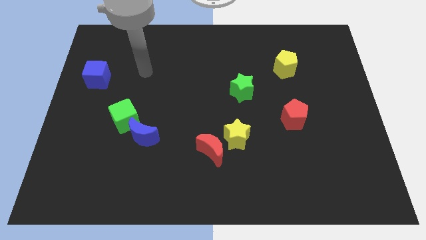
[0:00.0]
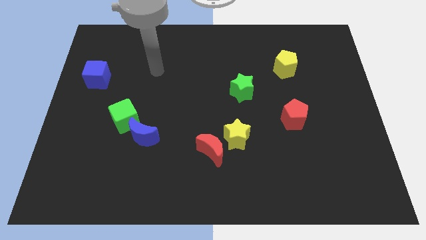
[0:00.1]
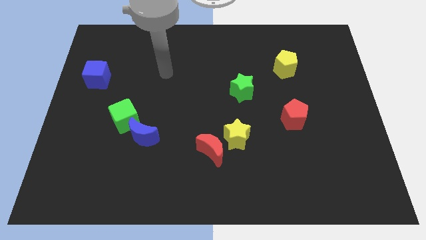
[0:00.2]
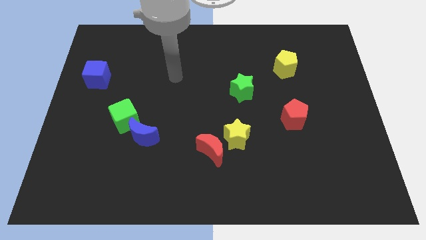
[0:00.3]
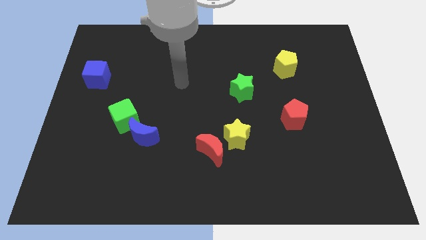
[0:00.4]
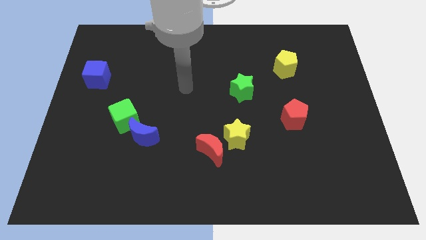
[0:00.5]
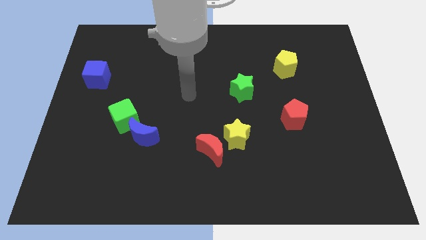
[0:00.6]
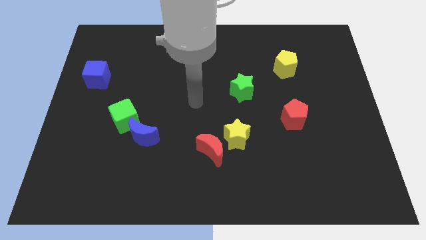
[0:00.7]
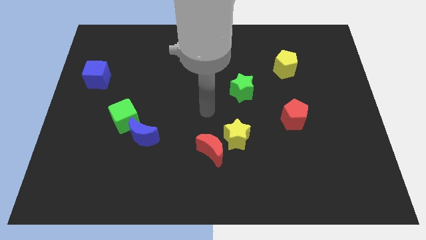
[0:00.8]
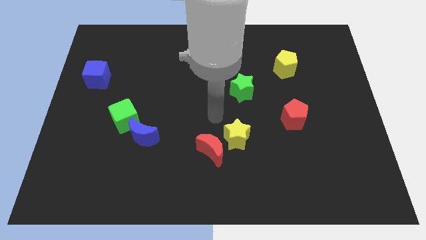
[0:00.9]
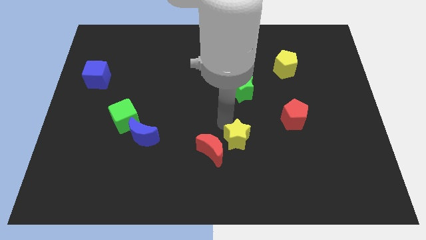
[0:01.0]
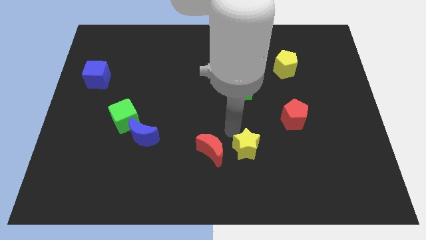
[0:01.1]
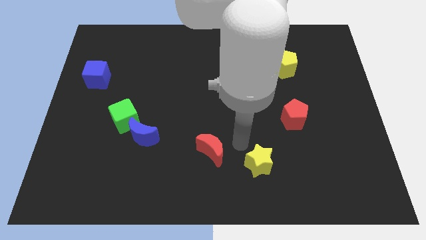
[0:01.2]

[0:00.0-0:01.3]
pull the red moon apart from the yellow star

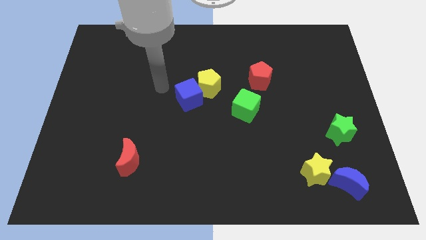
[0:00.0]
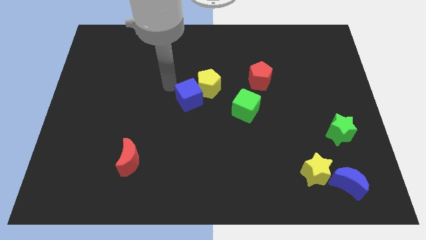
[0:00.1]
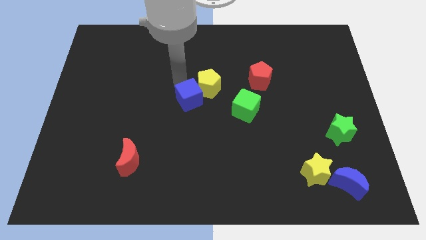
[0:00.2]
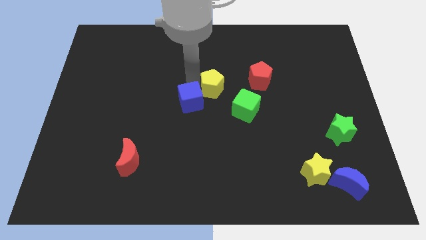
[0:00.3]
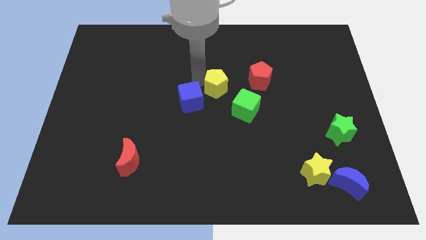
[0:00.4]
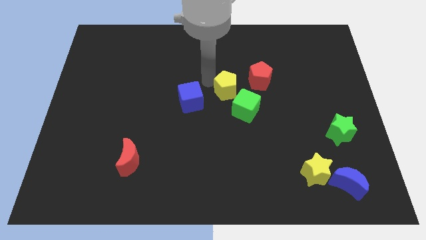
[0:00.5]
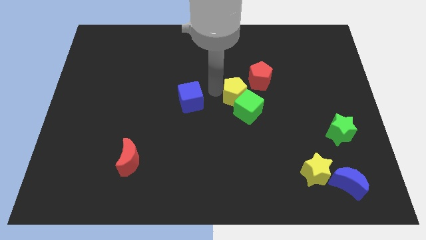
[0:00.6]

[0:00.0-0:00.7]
move the blue cube away from the yellow pentagon

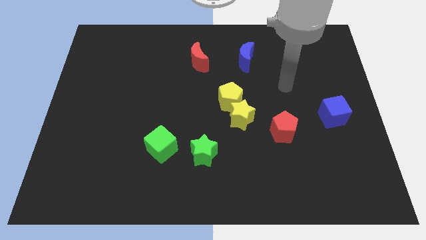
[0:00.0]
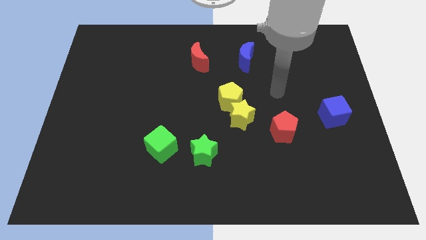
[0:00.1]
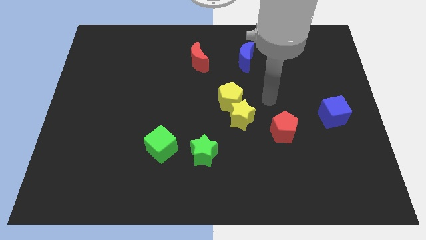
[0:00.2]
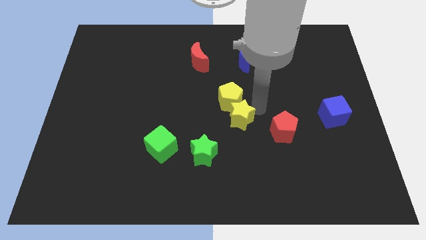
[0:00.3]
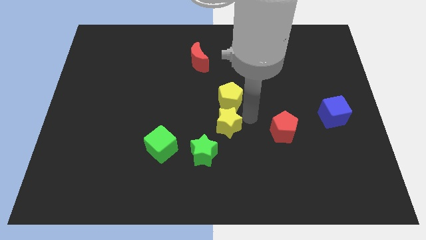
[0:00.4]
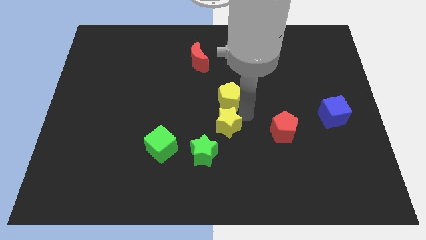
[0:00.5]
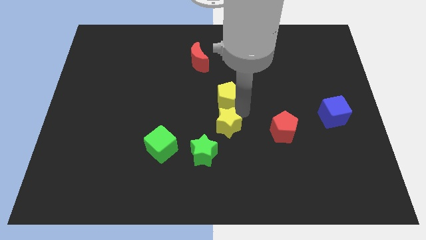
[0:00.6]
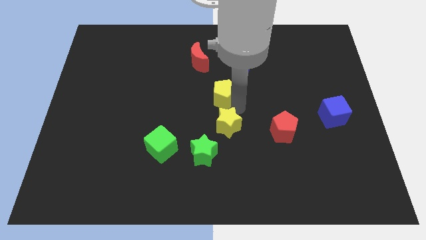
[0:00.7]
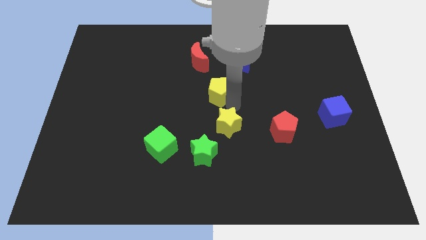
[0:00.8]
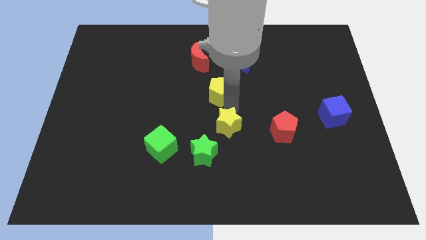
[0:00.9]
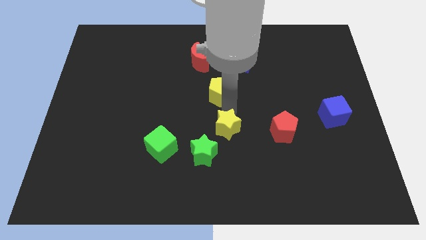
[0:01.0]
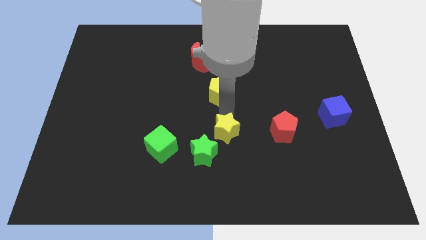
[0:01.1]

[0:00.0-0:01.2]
separate the yellow pentagon from the yellow star

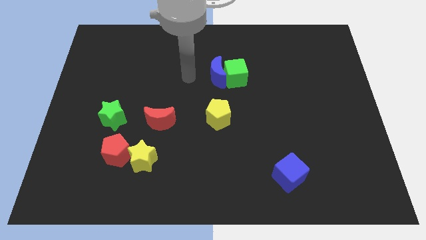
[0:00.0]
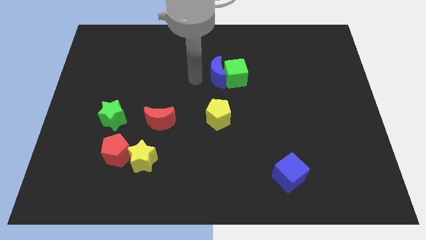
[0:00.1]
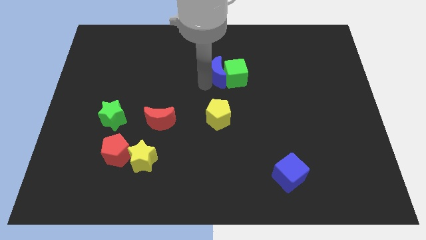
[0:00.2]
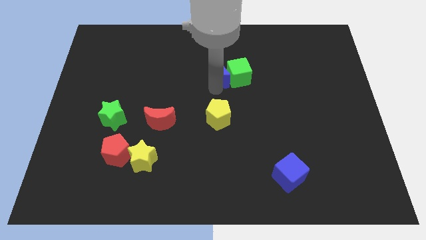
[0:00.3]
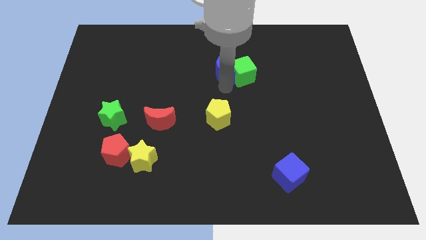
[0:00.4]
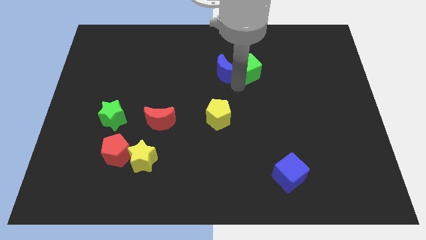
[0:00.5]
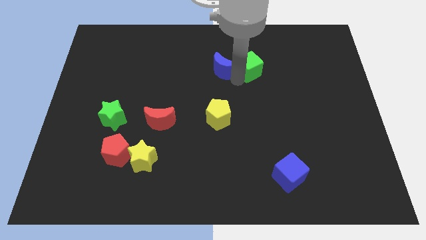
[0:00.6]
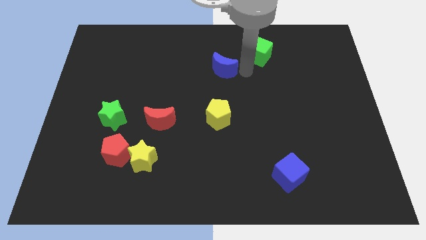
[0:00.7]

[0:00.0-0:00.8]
move the blue moon away from the green cube

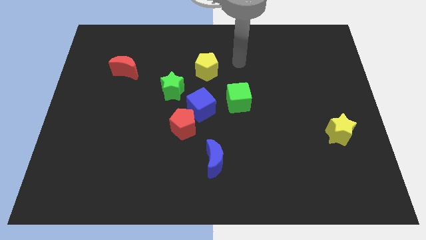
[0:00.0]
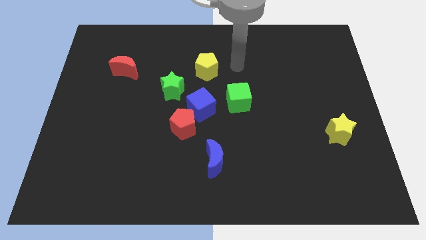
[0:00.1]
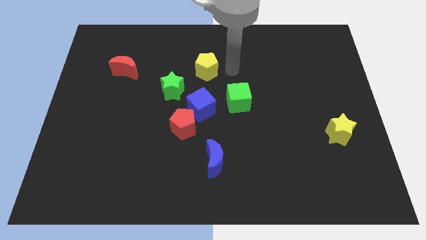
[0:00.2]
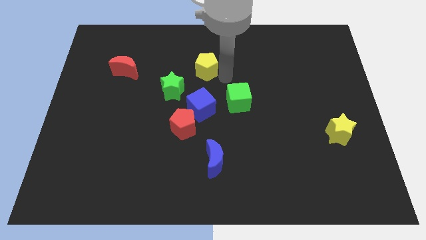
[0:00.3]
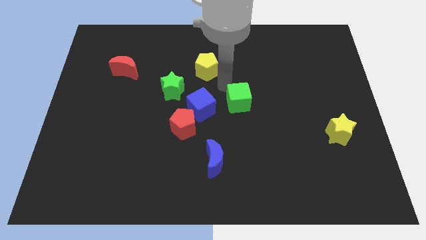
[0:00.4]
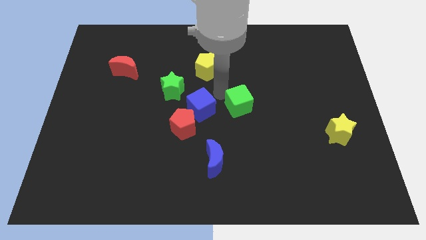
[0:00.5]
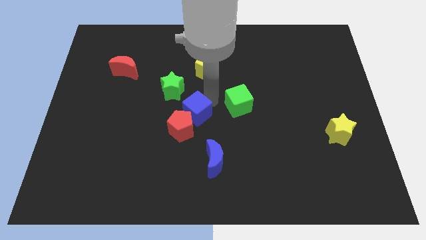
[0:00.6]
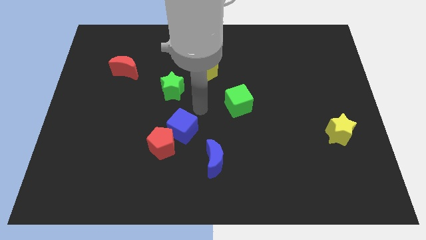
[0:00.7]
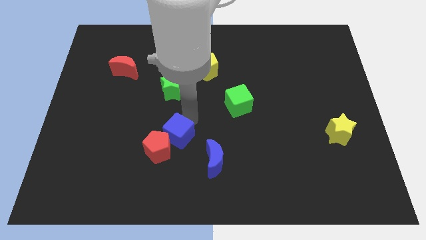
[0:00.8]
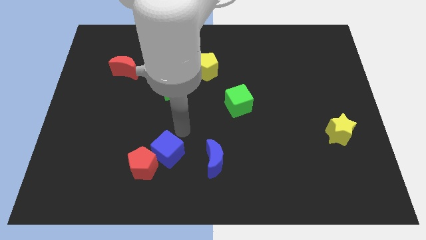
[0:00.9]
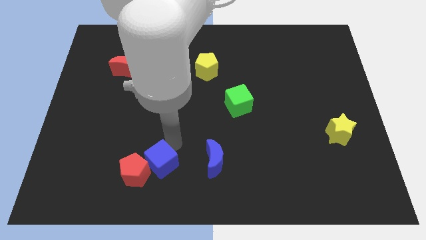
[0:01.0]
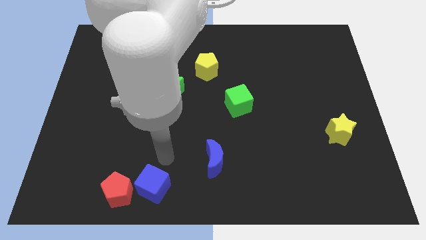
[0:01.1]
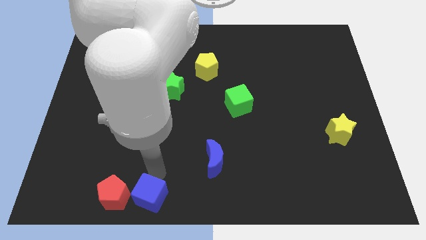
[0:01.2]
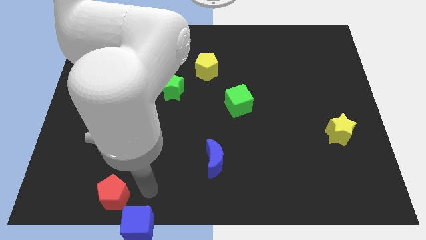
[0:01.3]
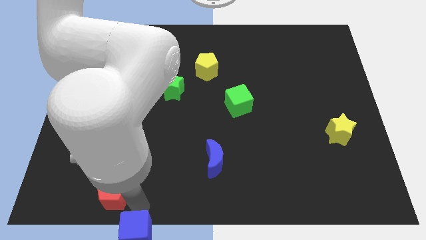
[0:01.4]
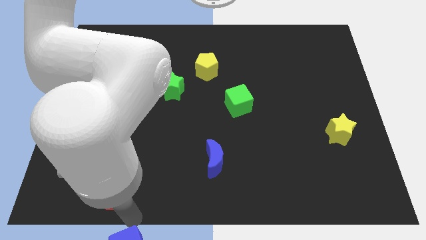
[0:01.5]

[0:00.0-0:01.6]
move the red pentagon away from the blue cube

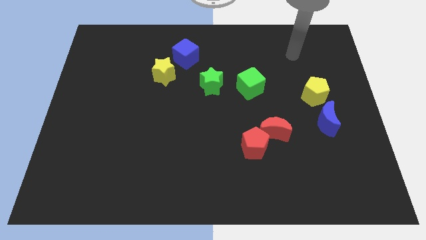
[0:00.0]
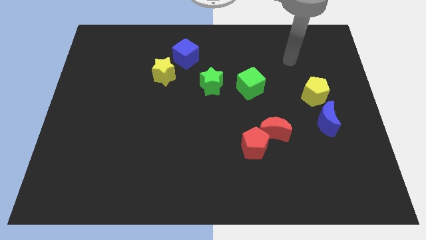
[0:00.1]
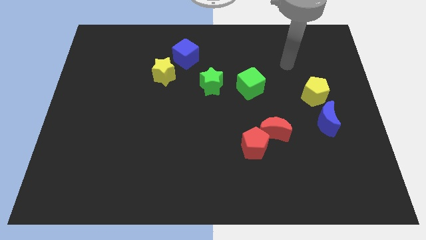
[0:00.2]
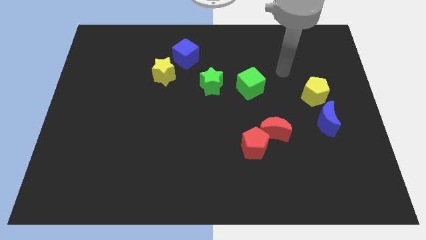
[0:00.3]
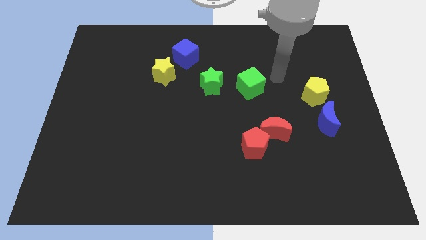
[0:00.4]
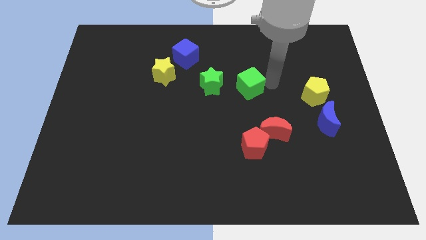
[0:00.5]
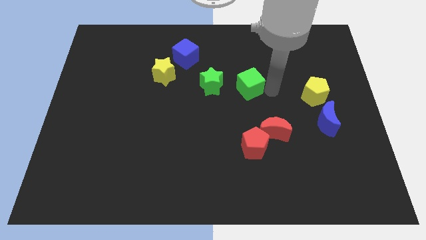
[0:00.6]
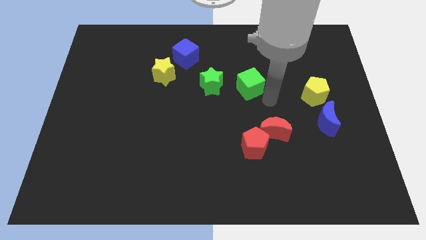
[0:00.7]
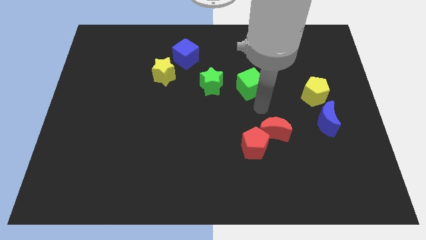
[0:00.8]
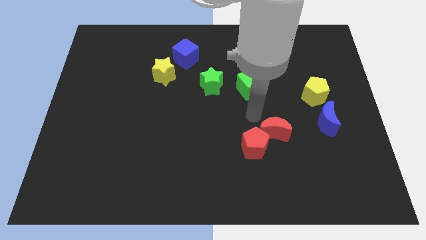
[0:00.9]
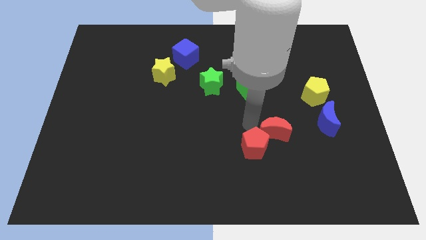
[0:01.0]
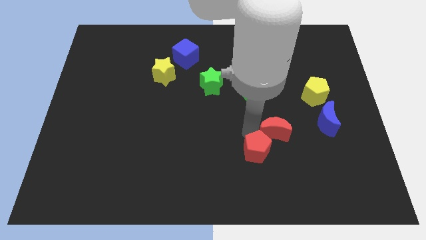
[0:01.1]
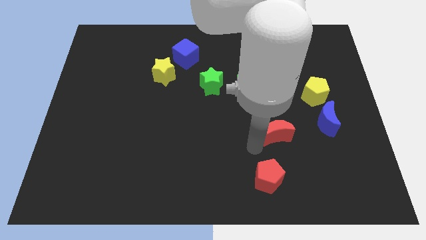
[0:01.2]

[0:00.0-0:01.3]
pull the red moon apart from the red pentagon

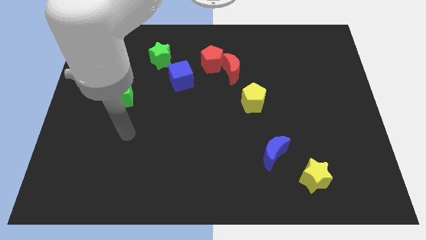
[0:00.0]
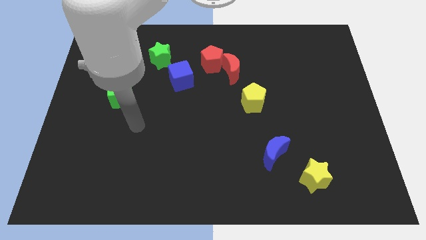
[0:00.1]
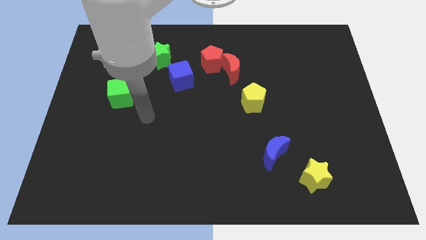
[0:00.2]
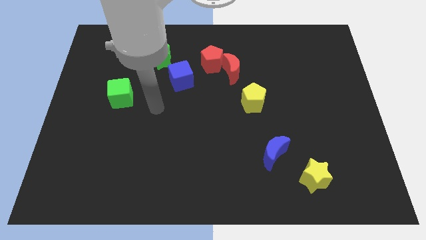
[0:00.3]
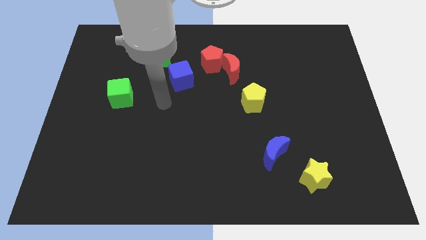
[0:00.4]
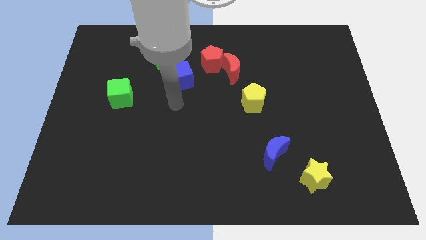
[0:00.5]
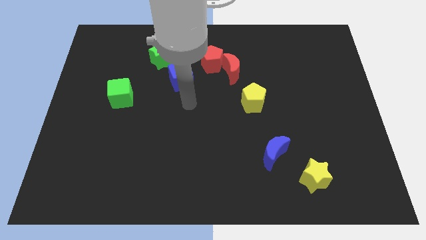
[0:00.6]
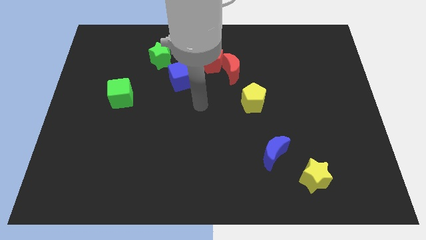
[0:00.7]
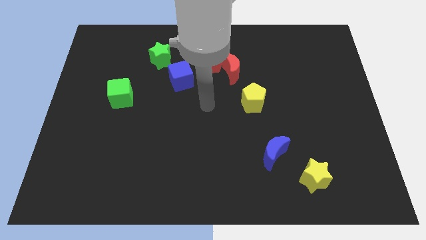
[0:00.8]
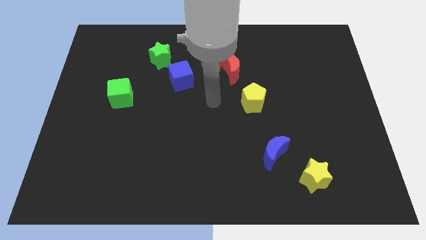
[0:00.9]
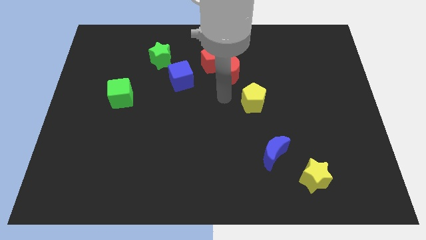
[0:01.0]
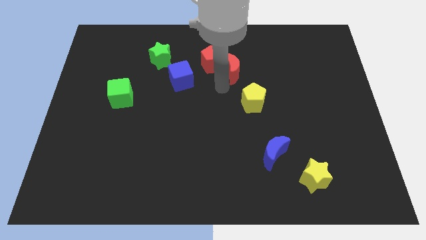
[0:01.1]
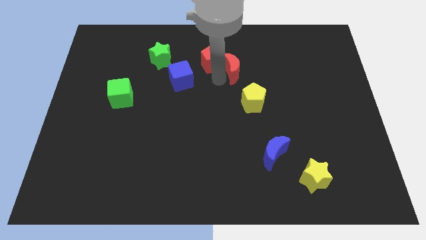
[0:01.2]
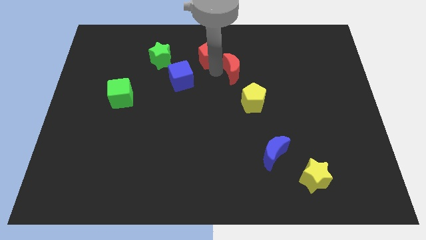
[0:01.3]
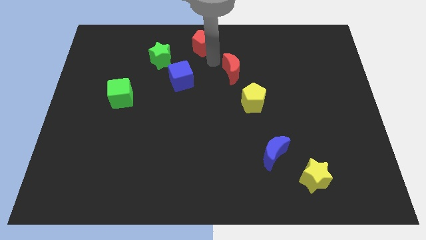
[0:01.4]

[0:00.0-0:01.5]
separate the red moon from the red pentagon

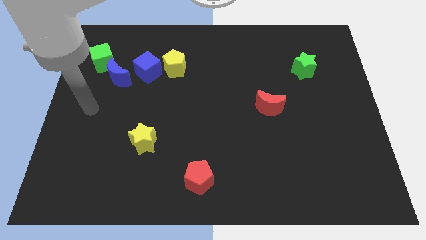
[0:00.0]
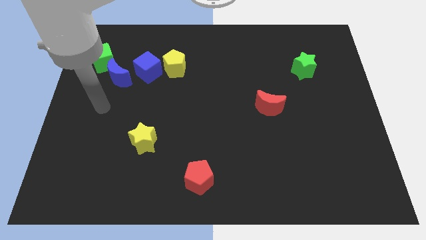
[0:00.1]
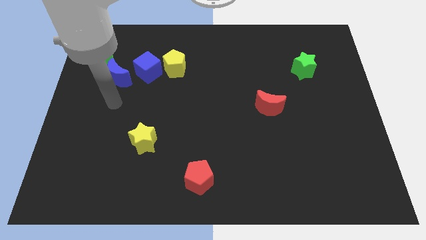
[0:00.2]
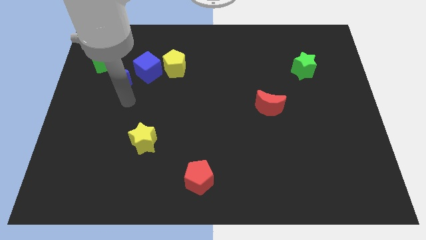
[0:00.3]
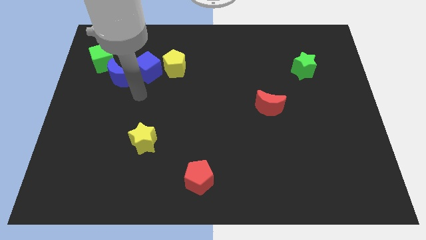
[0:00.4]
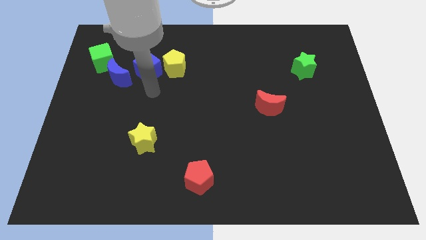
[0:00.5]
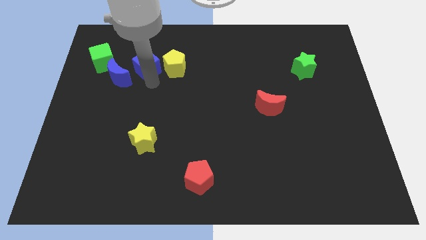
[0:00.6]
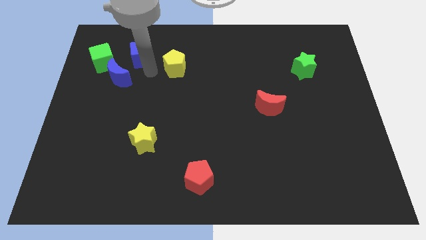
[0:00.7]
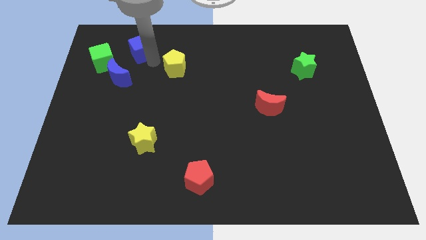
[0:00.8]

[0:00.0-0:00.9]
pull the yellow pentagon apart from the blue cube
